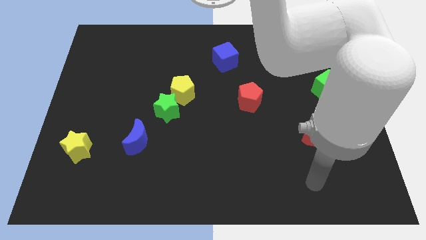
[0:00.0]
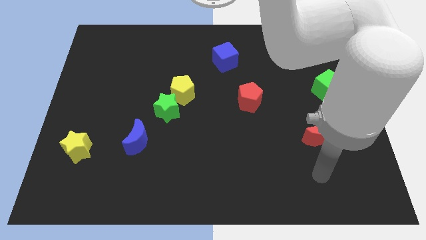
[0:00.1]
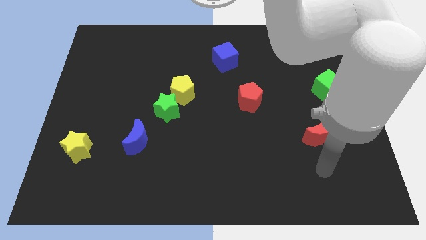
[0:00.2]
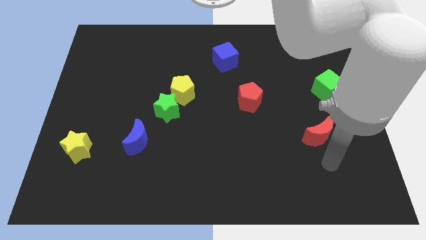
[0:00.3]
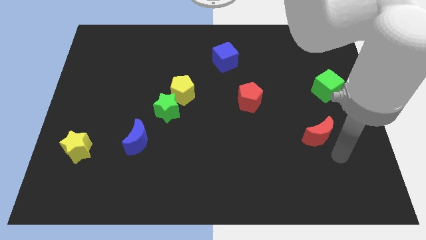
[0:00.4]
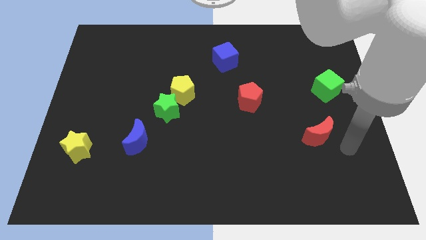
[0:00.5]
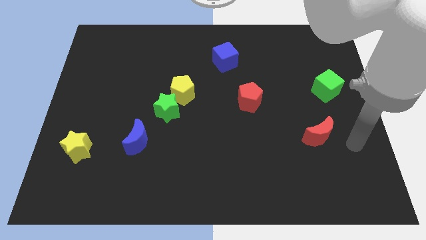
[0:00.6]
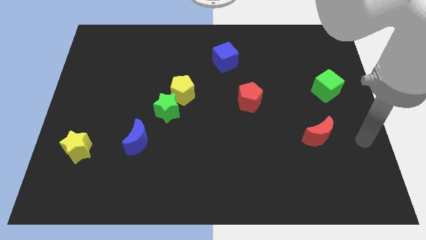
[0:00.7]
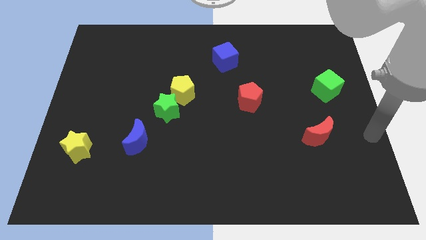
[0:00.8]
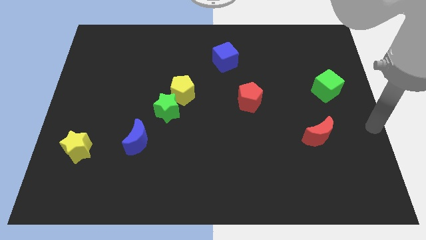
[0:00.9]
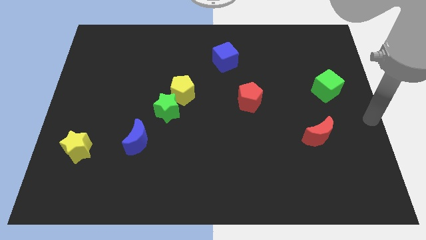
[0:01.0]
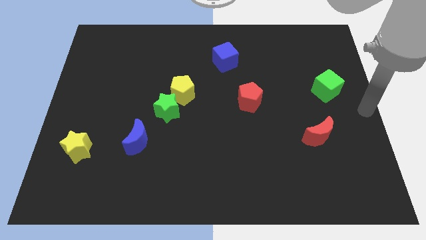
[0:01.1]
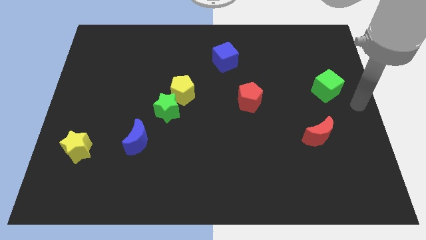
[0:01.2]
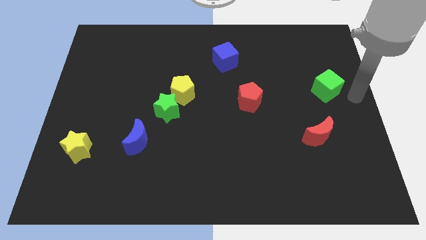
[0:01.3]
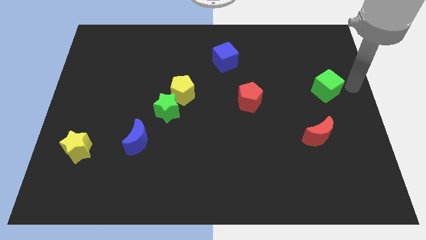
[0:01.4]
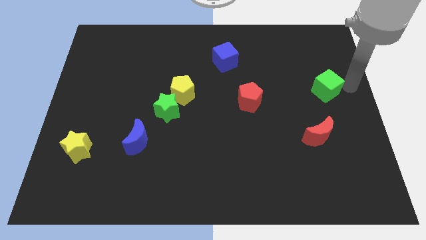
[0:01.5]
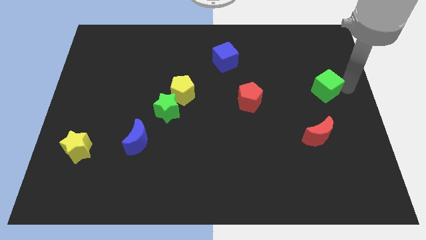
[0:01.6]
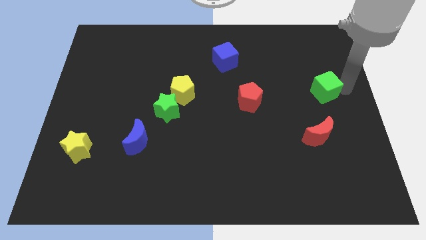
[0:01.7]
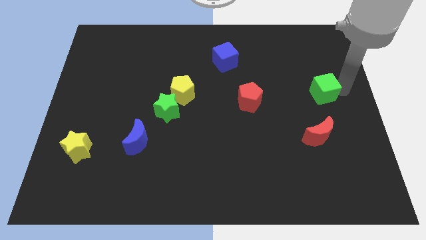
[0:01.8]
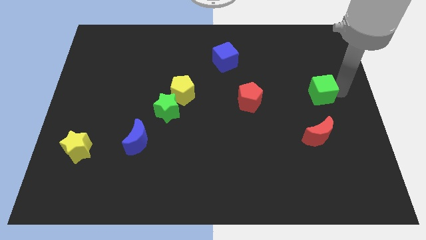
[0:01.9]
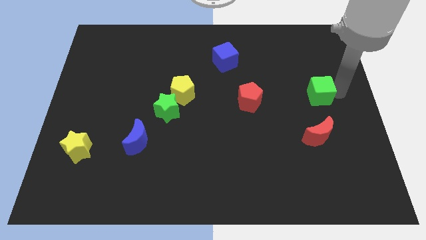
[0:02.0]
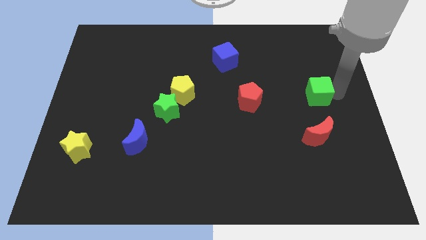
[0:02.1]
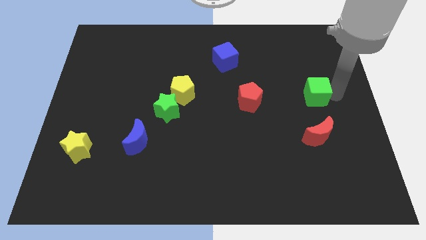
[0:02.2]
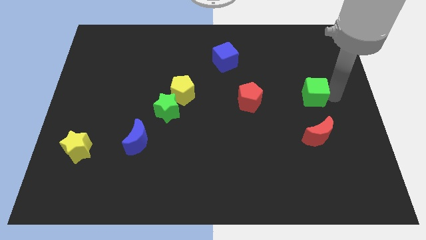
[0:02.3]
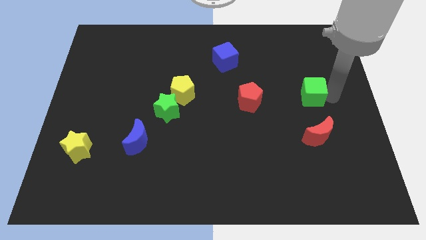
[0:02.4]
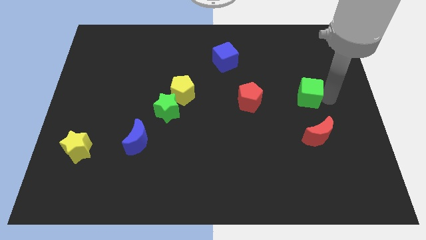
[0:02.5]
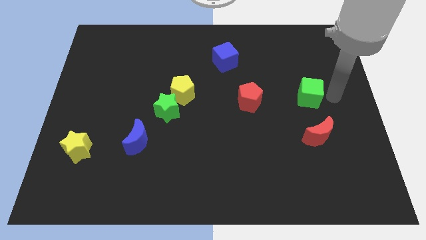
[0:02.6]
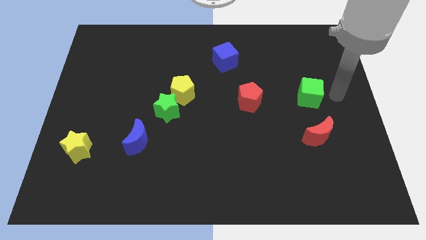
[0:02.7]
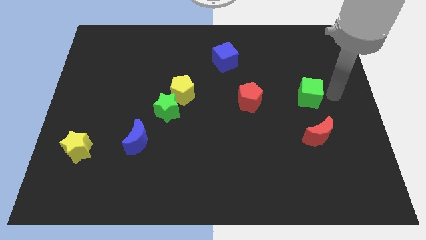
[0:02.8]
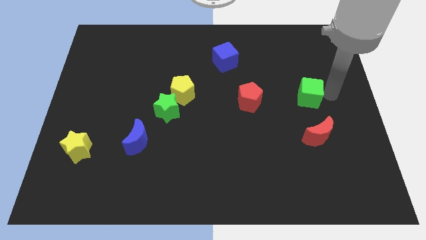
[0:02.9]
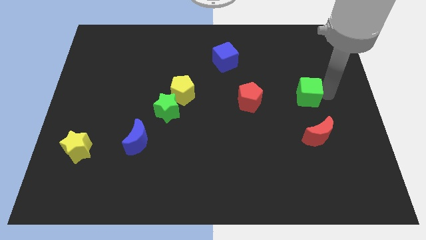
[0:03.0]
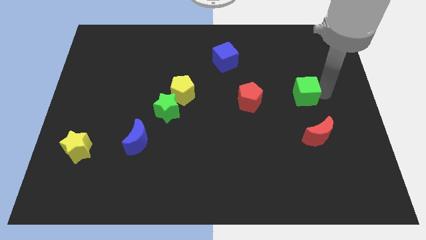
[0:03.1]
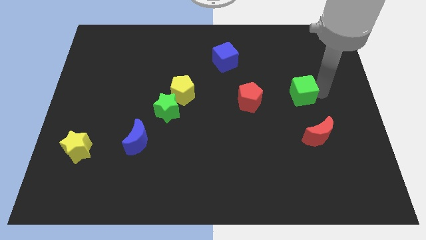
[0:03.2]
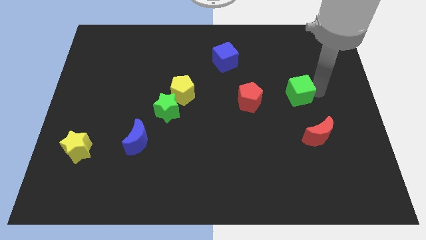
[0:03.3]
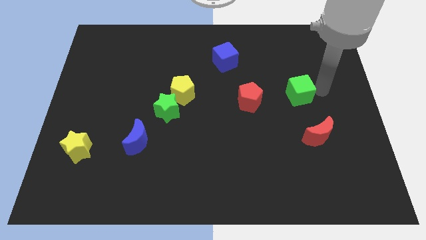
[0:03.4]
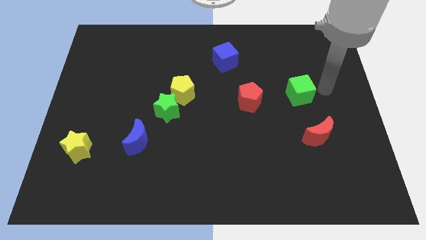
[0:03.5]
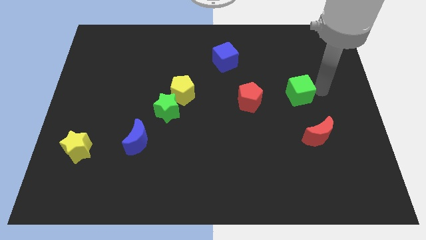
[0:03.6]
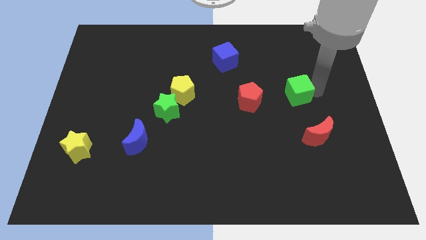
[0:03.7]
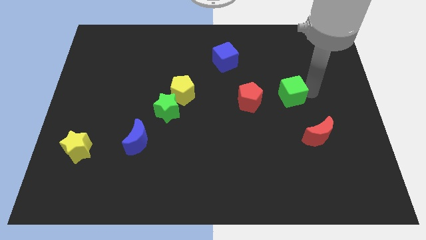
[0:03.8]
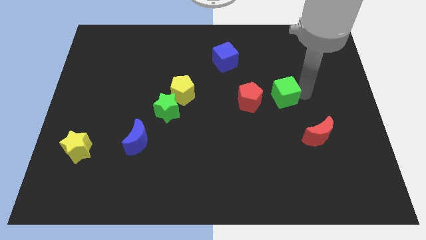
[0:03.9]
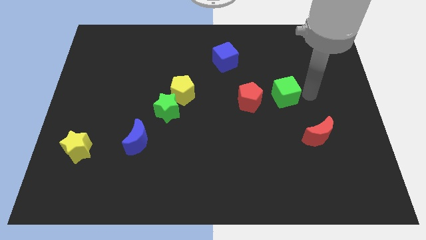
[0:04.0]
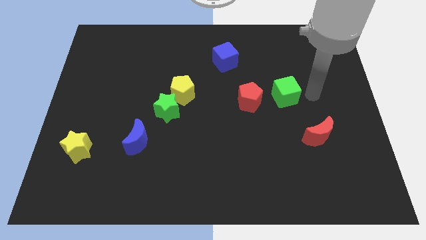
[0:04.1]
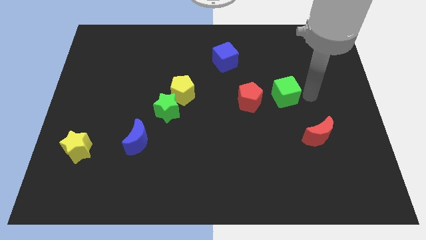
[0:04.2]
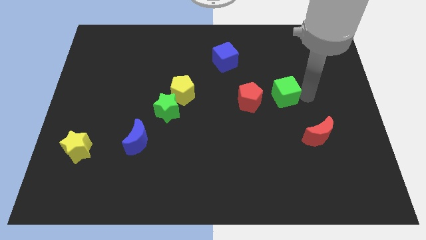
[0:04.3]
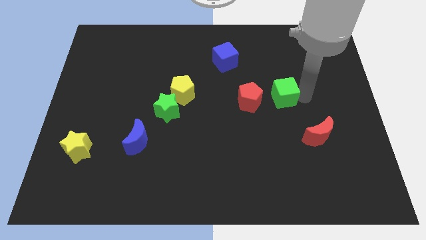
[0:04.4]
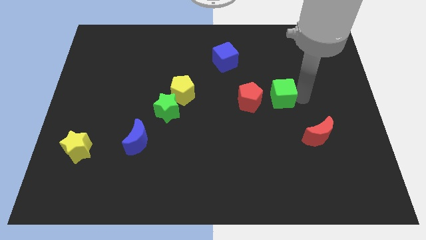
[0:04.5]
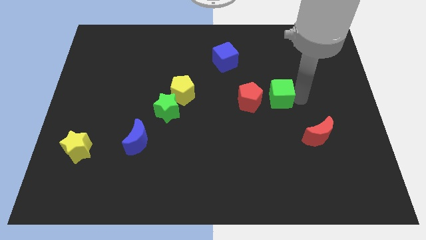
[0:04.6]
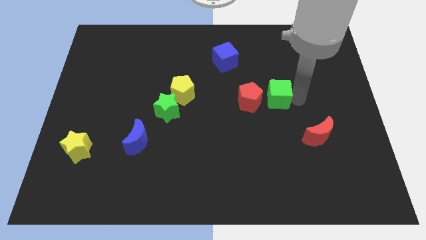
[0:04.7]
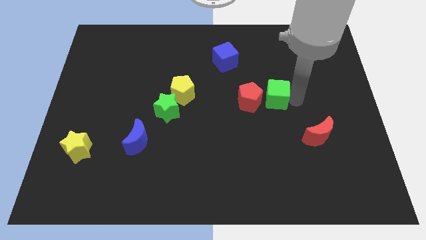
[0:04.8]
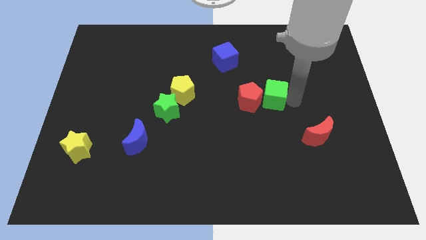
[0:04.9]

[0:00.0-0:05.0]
put the green cube towards the red pentagon

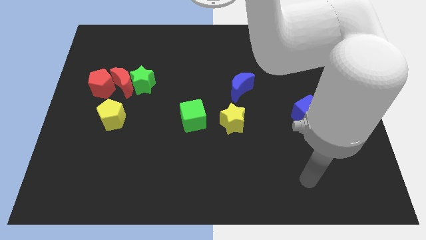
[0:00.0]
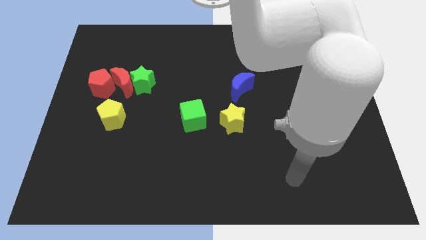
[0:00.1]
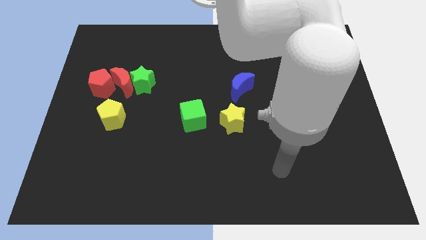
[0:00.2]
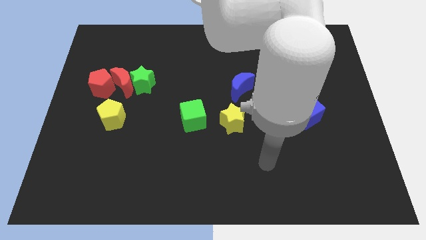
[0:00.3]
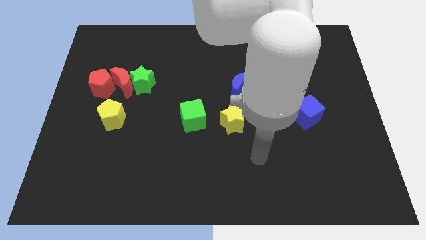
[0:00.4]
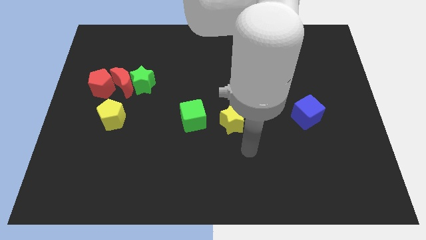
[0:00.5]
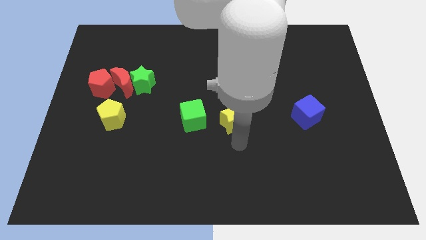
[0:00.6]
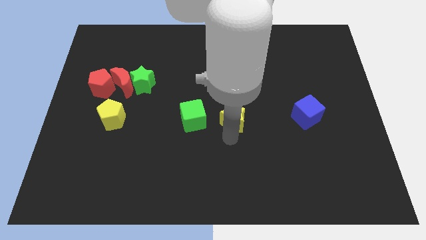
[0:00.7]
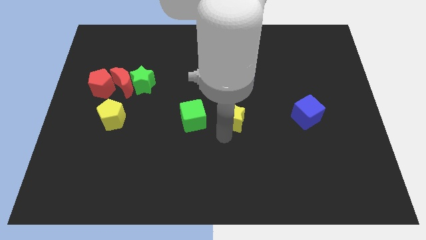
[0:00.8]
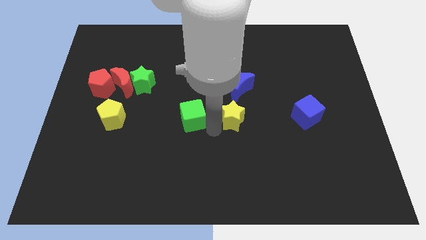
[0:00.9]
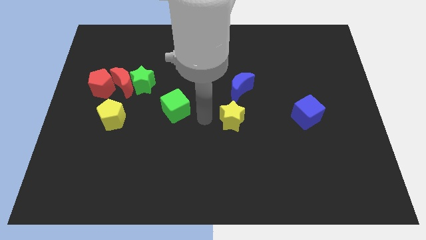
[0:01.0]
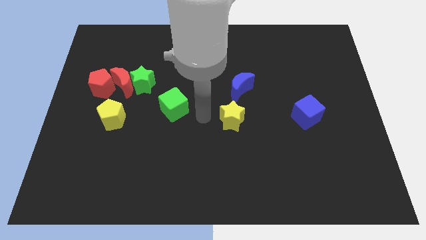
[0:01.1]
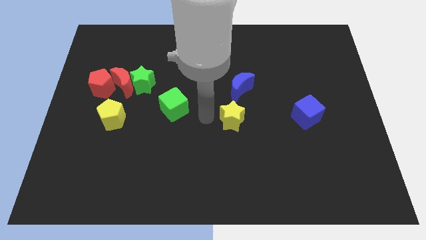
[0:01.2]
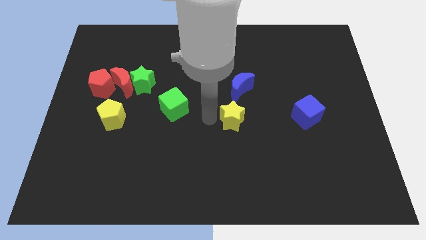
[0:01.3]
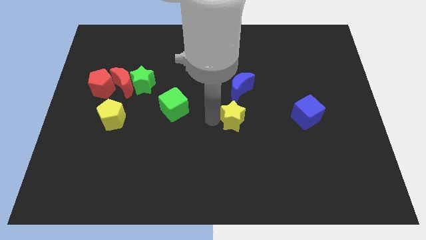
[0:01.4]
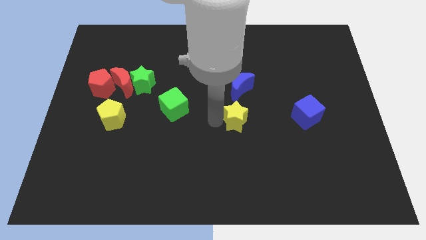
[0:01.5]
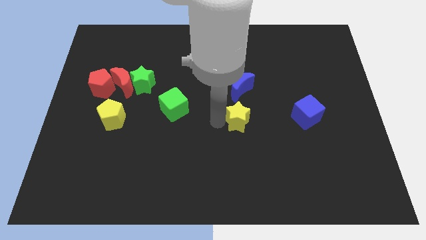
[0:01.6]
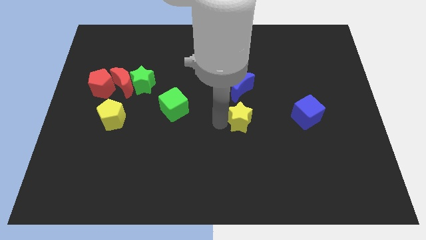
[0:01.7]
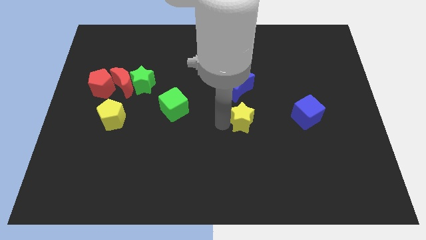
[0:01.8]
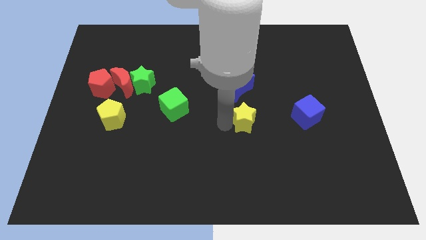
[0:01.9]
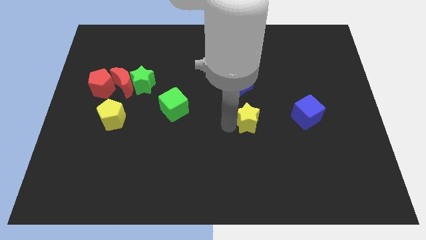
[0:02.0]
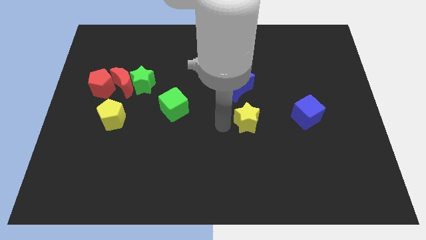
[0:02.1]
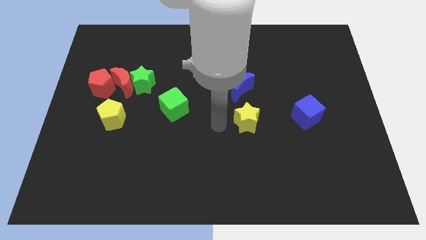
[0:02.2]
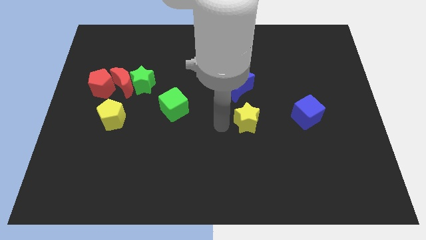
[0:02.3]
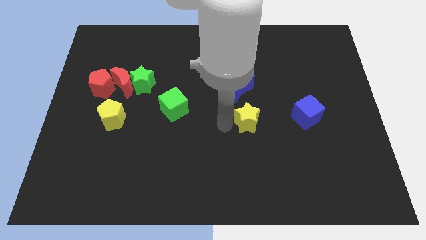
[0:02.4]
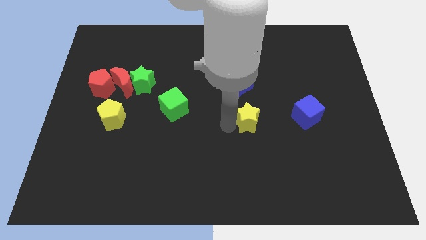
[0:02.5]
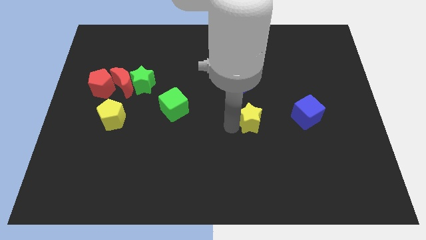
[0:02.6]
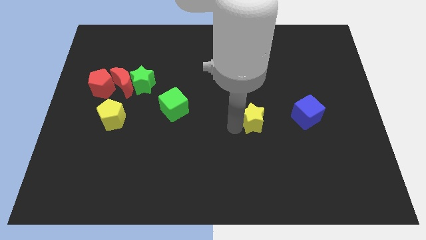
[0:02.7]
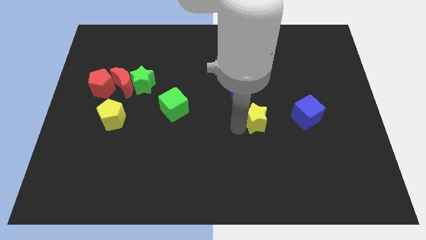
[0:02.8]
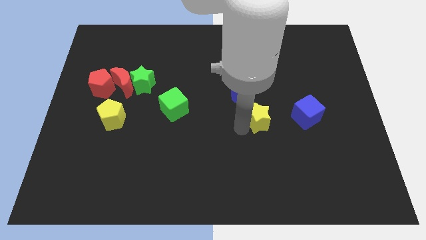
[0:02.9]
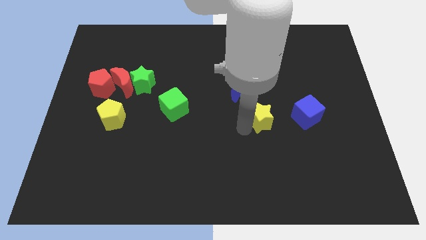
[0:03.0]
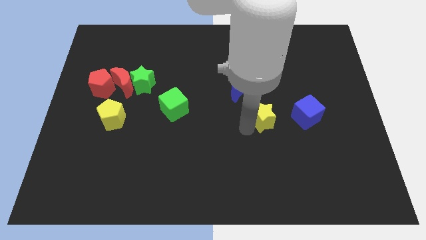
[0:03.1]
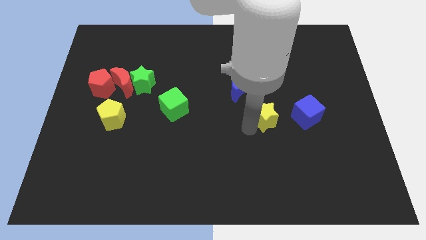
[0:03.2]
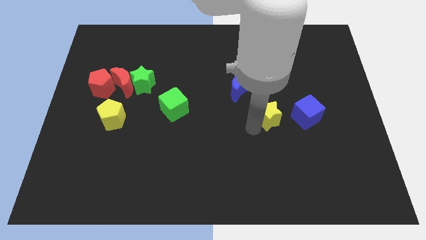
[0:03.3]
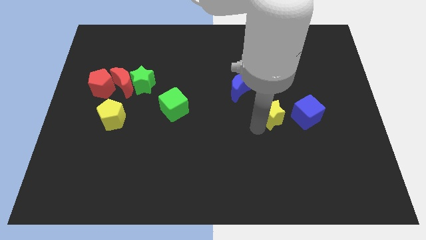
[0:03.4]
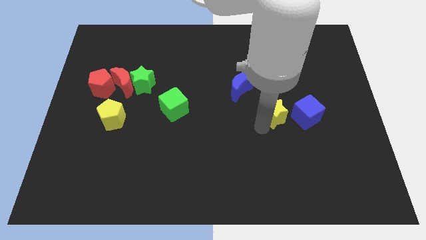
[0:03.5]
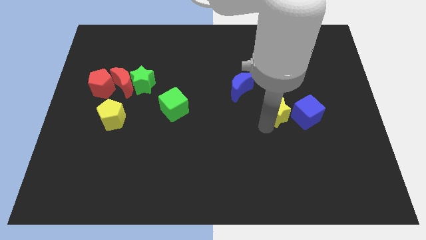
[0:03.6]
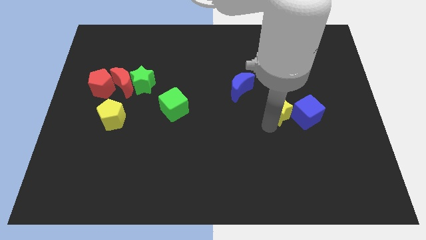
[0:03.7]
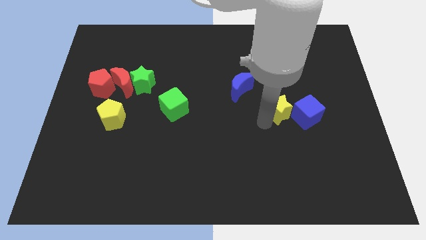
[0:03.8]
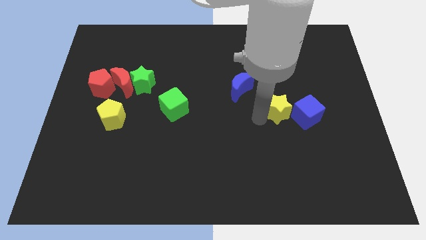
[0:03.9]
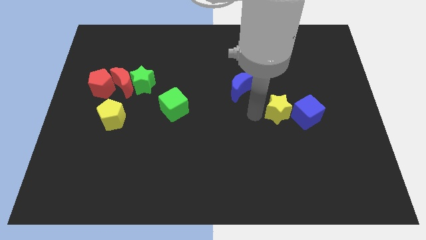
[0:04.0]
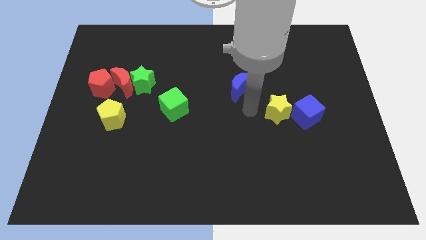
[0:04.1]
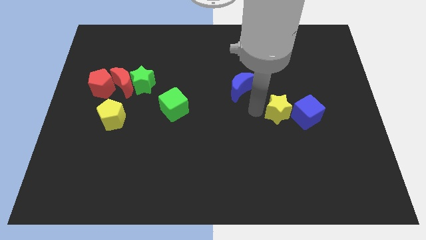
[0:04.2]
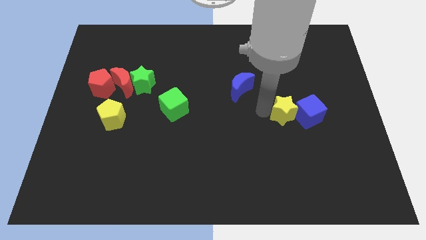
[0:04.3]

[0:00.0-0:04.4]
push the yellow star close to the blue cube
